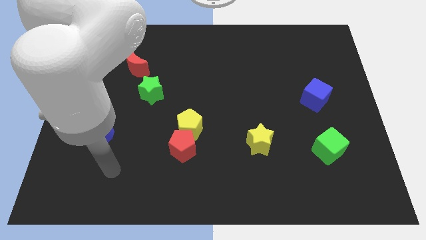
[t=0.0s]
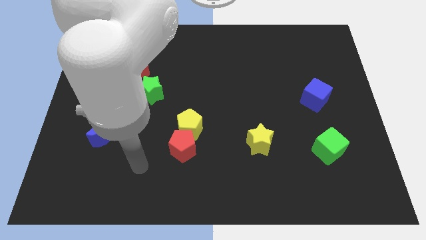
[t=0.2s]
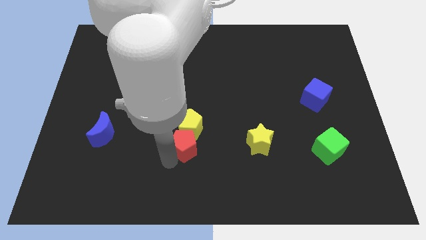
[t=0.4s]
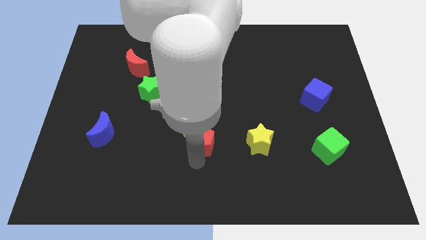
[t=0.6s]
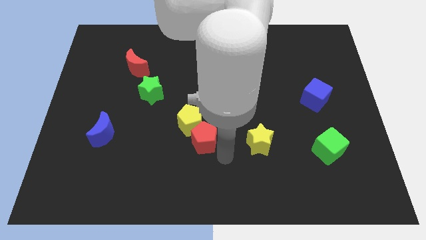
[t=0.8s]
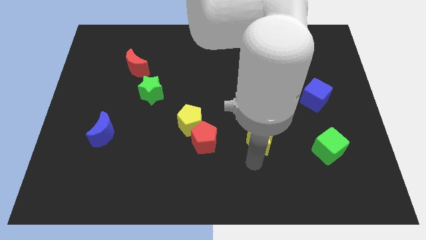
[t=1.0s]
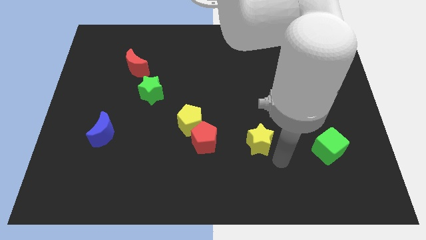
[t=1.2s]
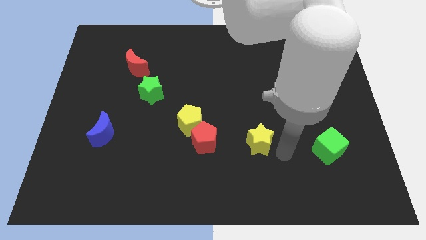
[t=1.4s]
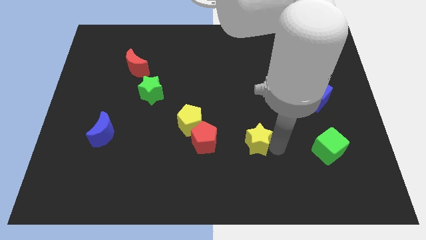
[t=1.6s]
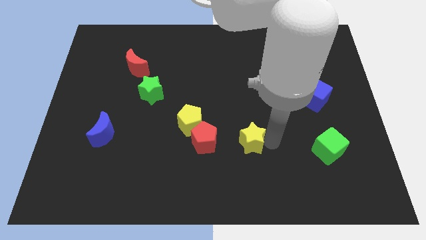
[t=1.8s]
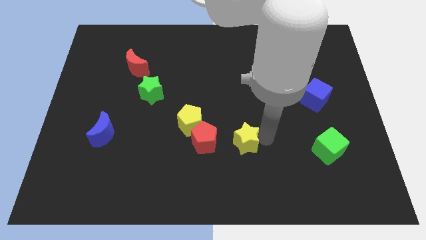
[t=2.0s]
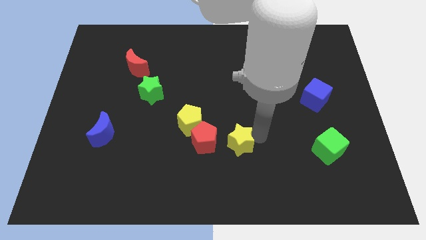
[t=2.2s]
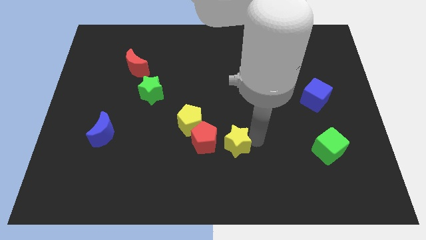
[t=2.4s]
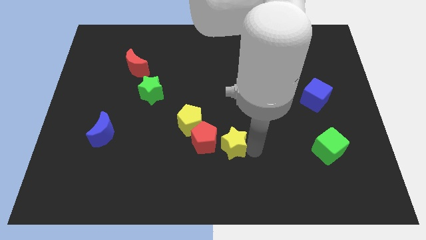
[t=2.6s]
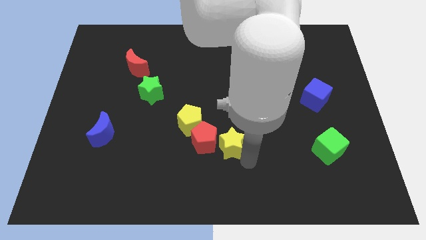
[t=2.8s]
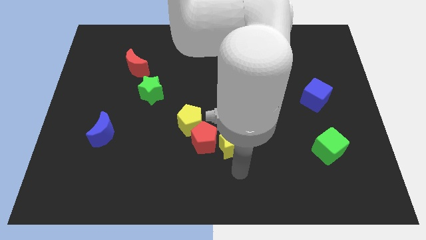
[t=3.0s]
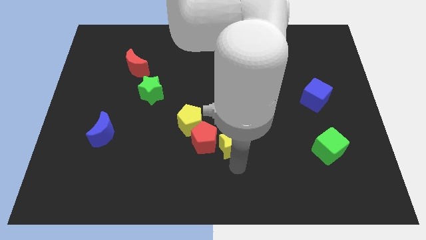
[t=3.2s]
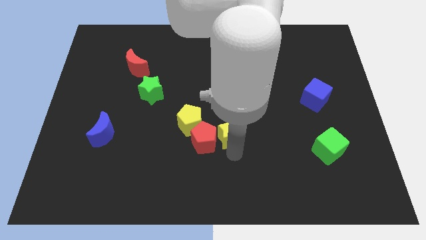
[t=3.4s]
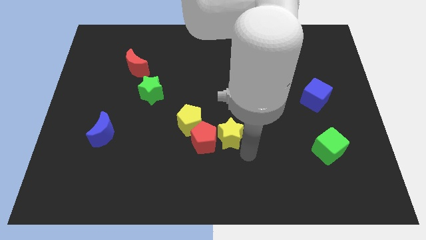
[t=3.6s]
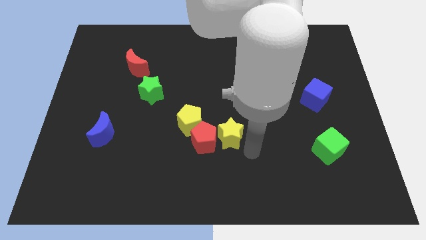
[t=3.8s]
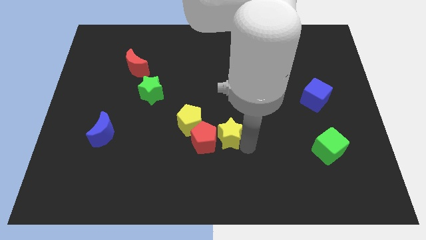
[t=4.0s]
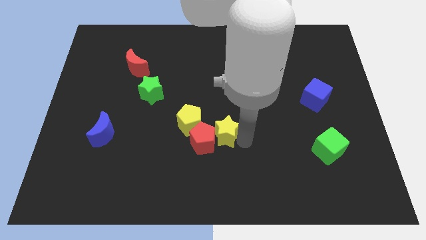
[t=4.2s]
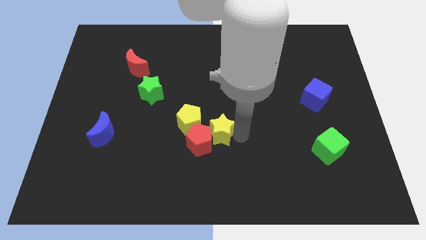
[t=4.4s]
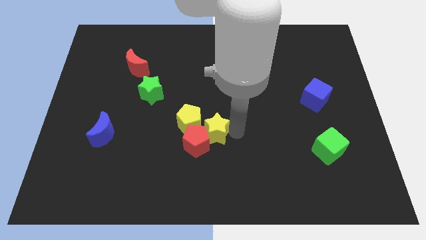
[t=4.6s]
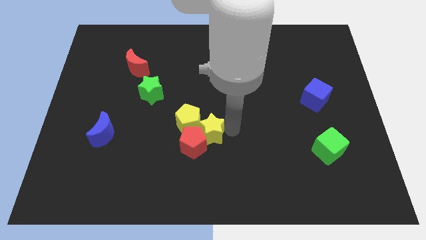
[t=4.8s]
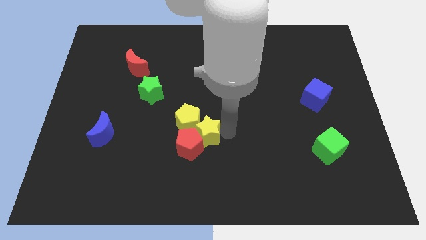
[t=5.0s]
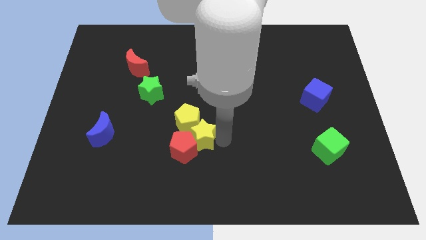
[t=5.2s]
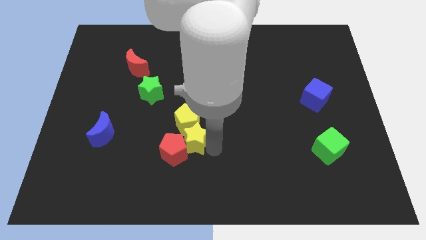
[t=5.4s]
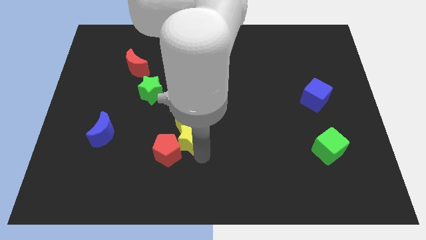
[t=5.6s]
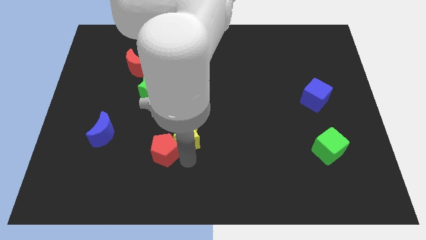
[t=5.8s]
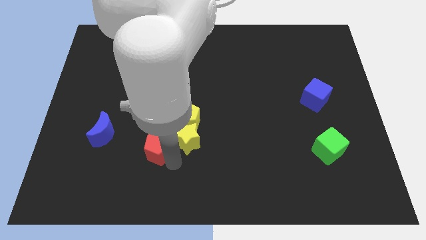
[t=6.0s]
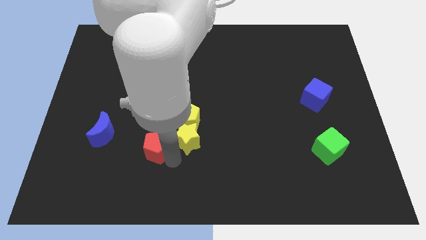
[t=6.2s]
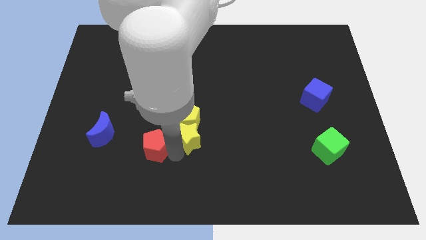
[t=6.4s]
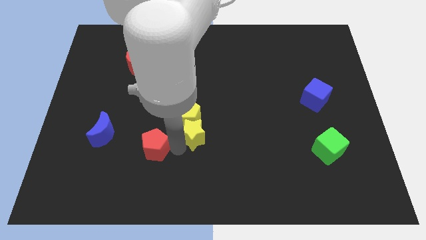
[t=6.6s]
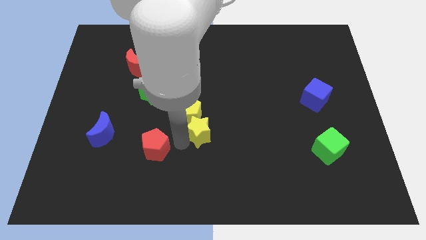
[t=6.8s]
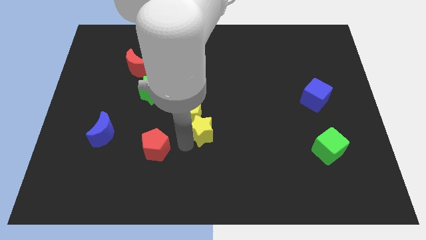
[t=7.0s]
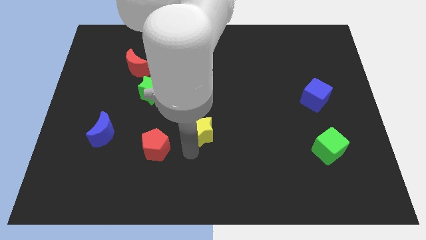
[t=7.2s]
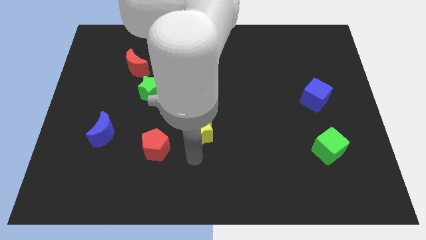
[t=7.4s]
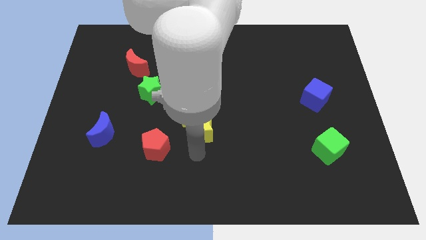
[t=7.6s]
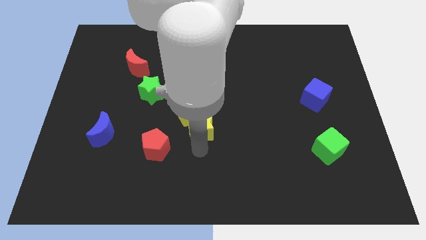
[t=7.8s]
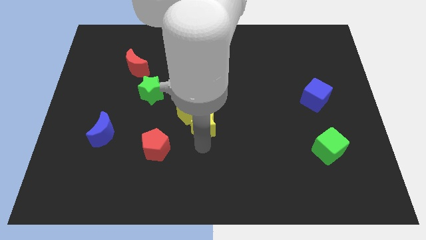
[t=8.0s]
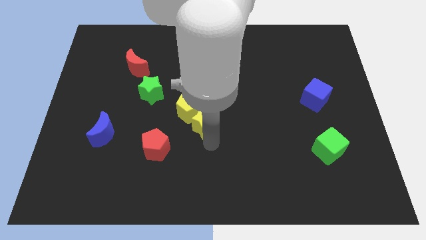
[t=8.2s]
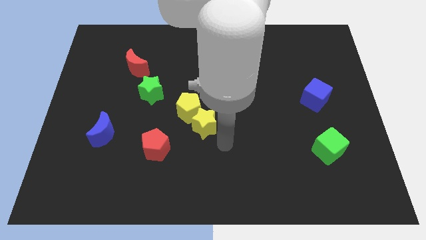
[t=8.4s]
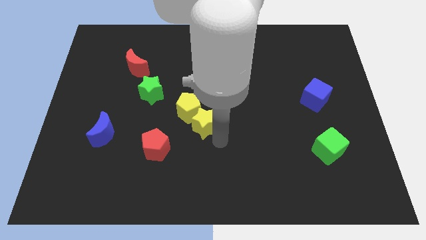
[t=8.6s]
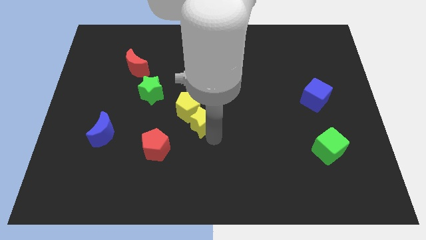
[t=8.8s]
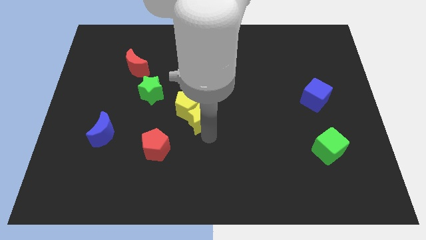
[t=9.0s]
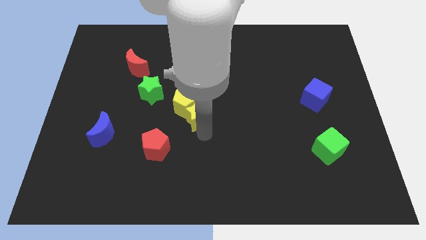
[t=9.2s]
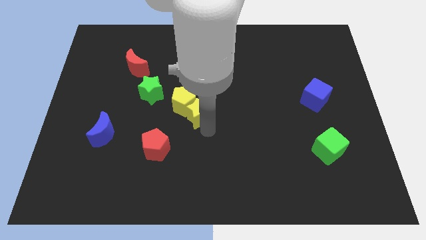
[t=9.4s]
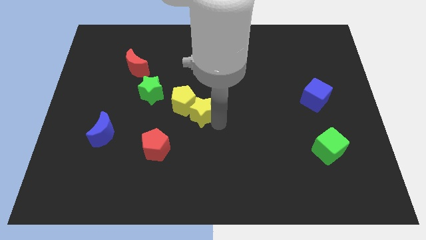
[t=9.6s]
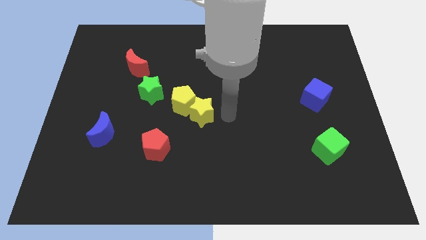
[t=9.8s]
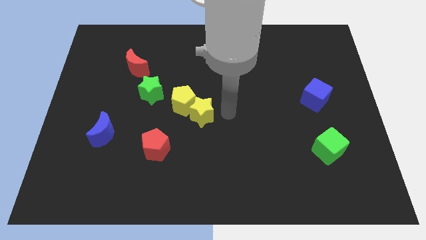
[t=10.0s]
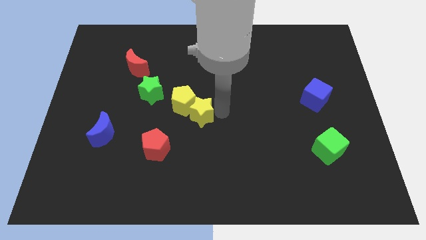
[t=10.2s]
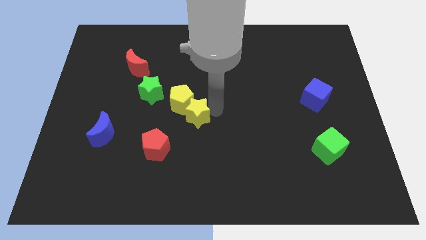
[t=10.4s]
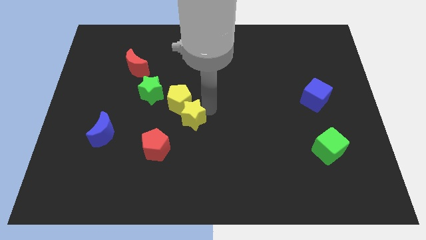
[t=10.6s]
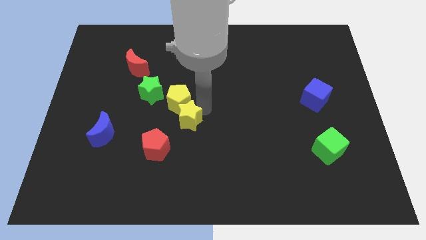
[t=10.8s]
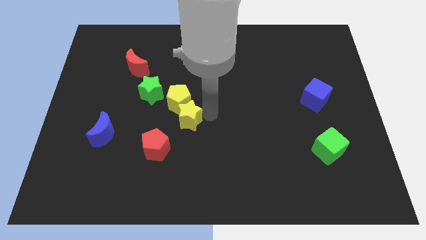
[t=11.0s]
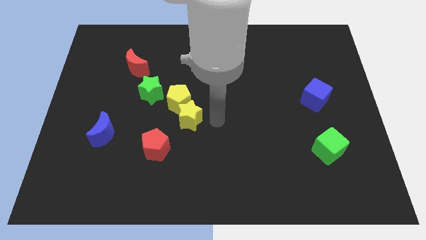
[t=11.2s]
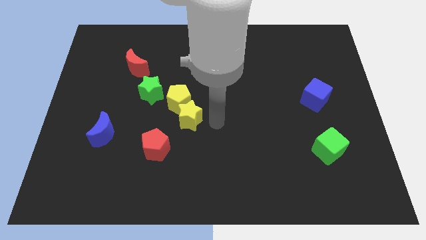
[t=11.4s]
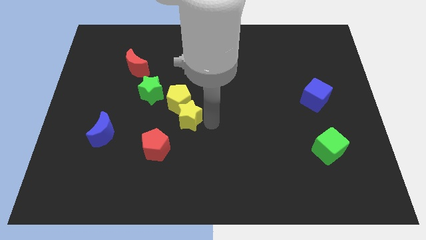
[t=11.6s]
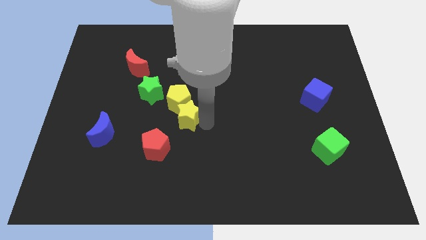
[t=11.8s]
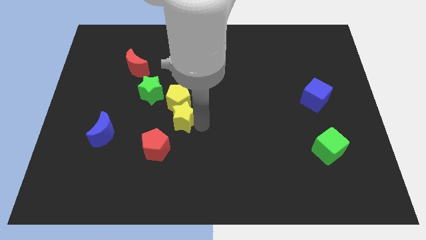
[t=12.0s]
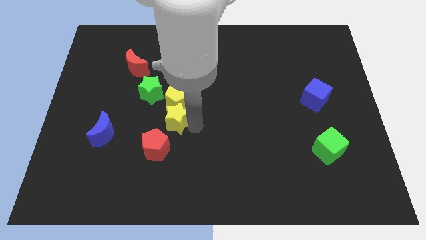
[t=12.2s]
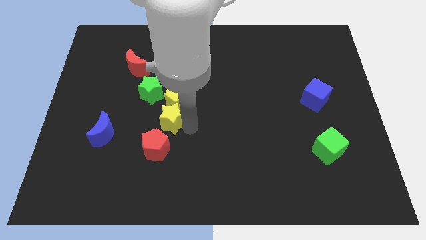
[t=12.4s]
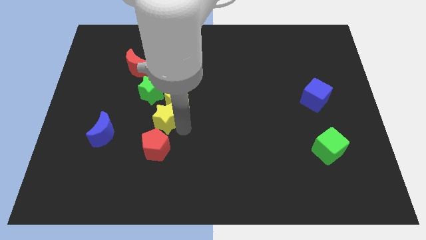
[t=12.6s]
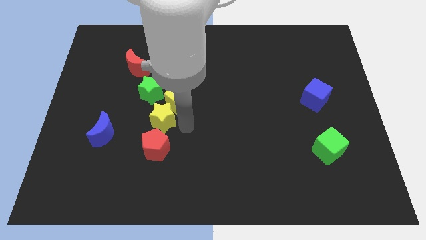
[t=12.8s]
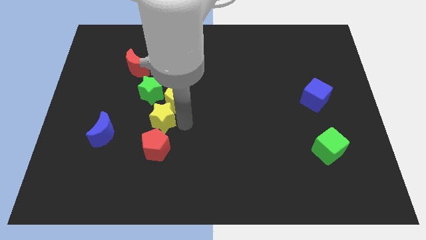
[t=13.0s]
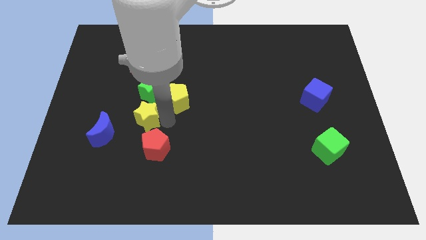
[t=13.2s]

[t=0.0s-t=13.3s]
put the yellow star to the top right side of the blue moon

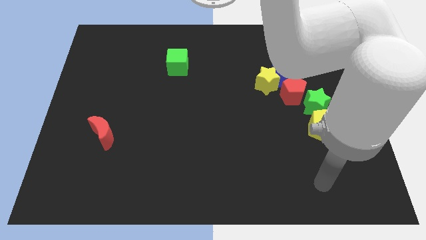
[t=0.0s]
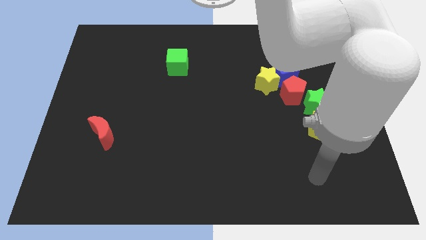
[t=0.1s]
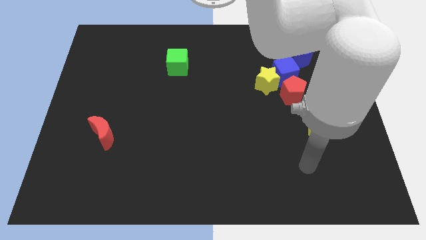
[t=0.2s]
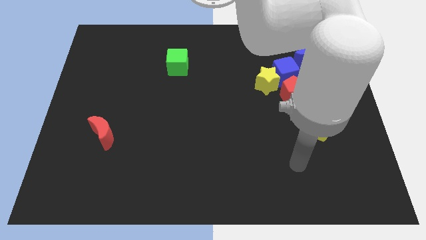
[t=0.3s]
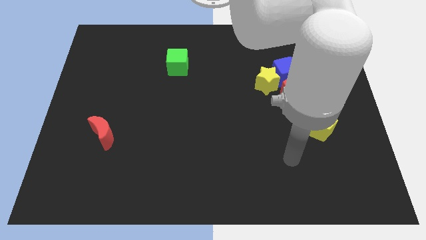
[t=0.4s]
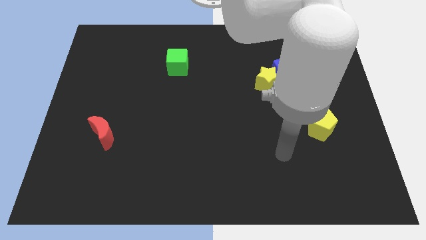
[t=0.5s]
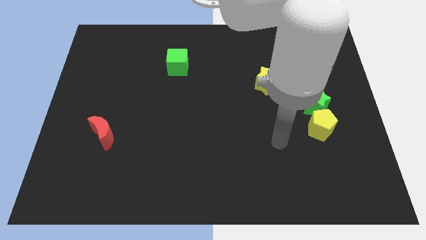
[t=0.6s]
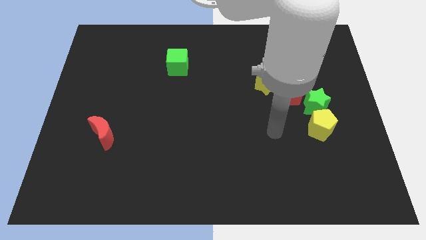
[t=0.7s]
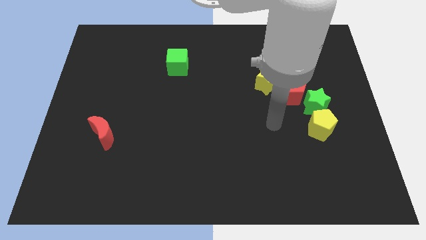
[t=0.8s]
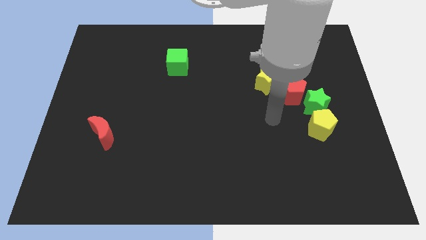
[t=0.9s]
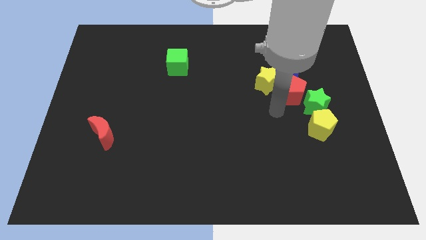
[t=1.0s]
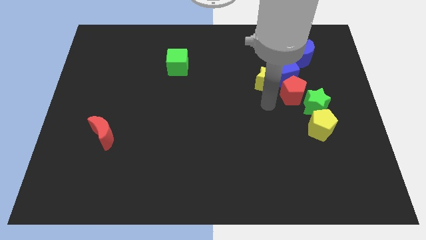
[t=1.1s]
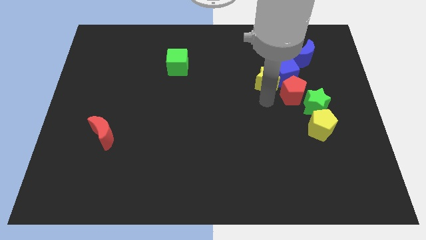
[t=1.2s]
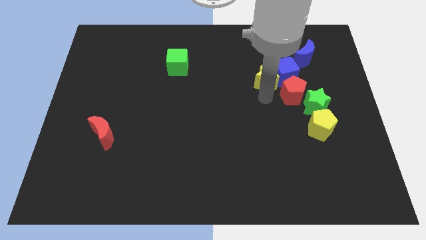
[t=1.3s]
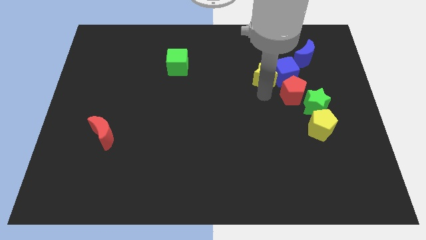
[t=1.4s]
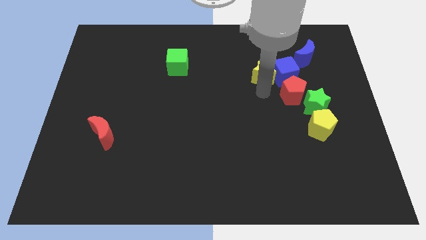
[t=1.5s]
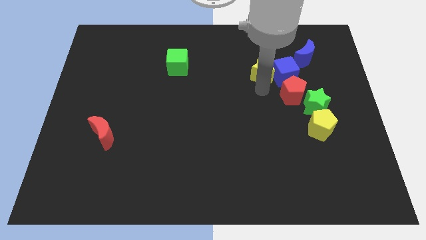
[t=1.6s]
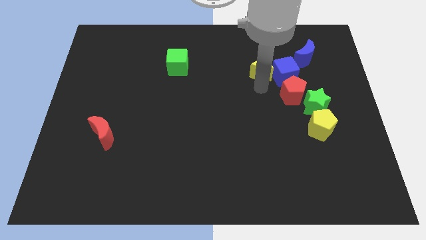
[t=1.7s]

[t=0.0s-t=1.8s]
push the yellow star to the left side of the blue moon
